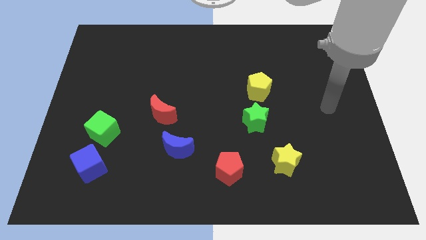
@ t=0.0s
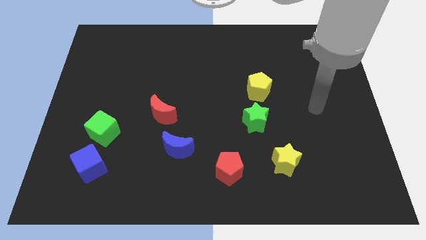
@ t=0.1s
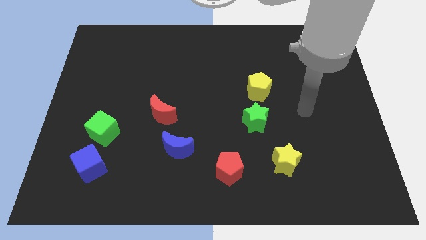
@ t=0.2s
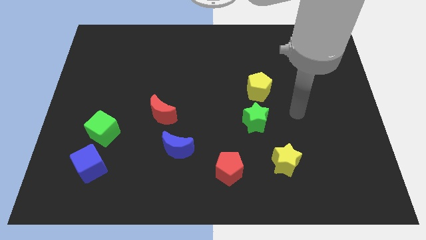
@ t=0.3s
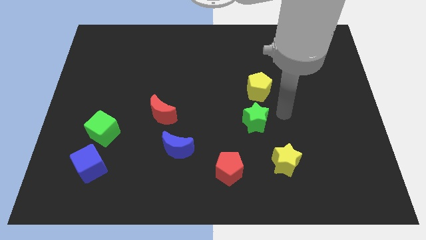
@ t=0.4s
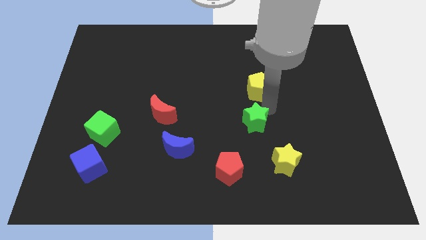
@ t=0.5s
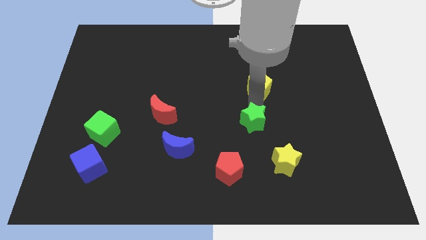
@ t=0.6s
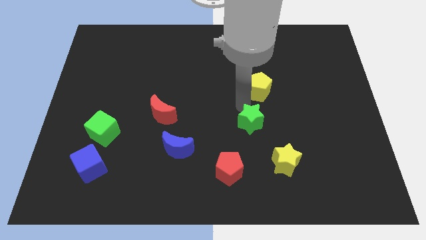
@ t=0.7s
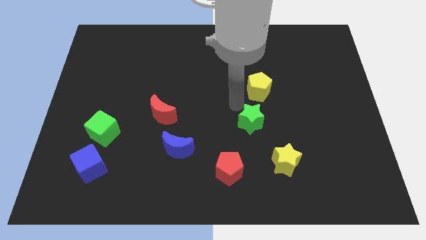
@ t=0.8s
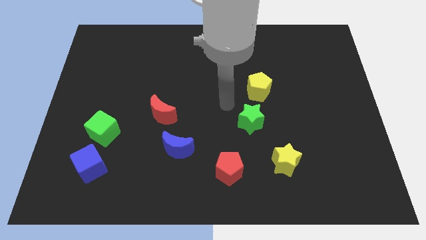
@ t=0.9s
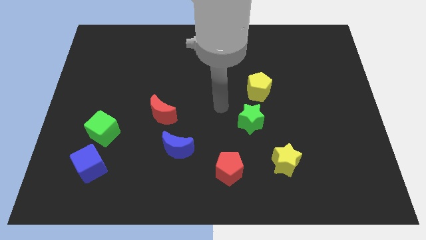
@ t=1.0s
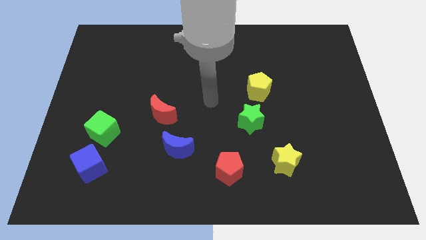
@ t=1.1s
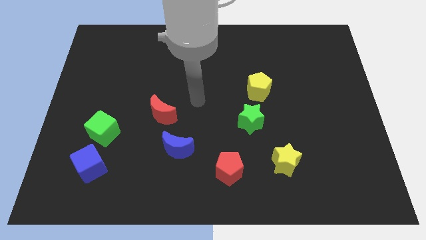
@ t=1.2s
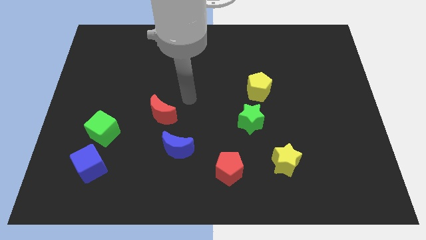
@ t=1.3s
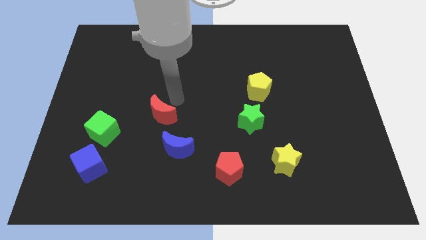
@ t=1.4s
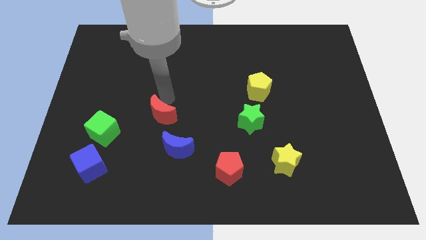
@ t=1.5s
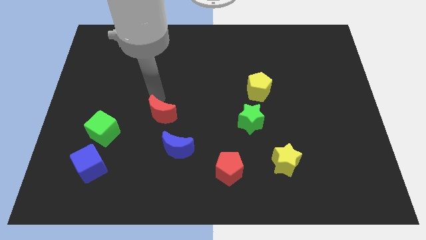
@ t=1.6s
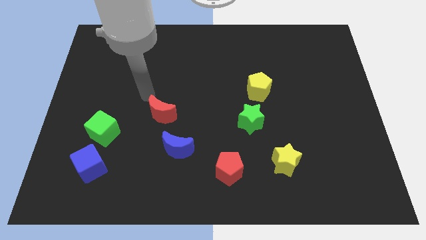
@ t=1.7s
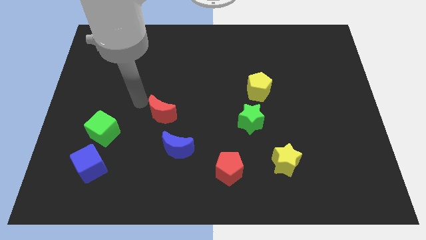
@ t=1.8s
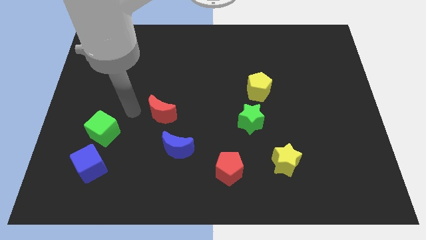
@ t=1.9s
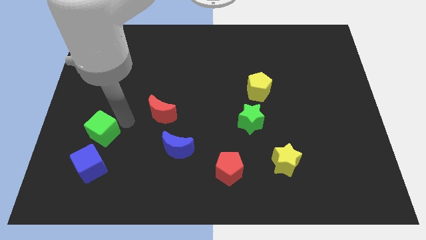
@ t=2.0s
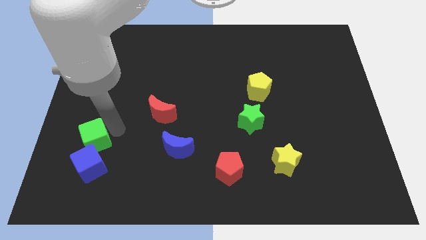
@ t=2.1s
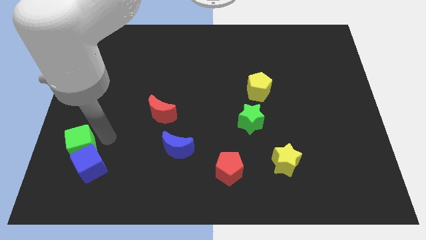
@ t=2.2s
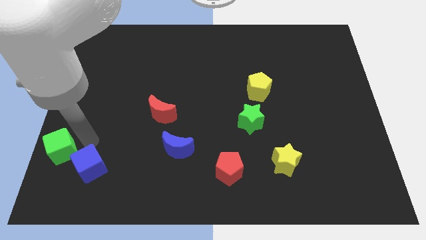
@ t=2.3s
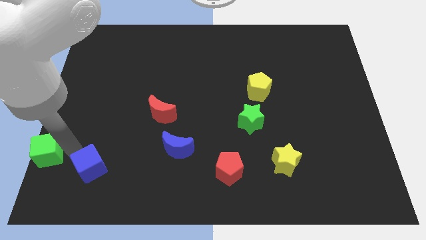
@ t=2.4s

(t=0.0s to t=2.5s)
separate the blue cube from the green cube

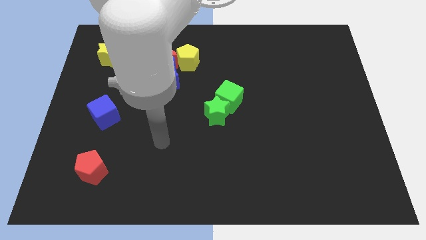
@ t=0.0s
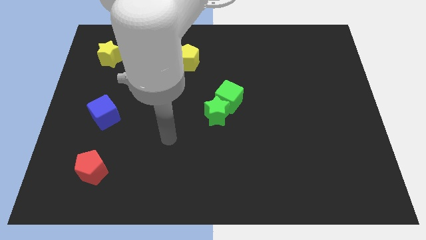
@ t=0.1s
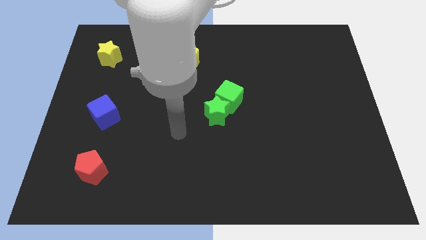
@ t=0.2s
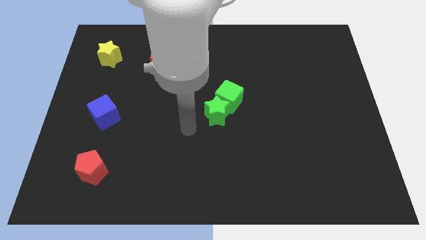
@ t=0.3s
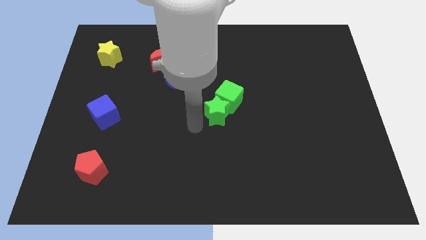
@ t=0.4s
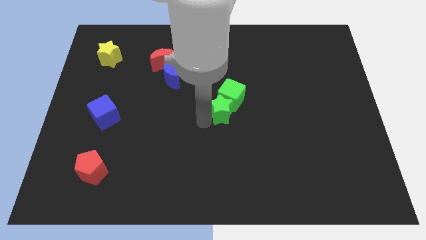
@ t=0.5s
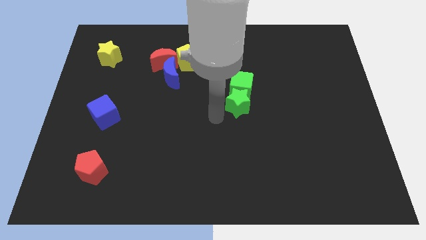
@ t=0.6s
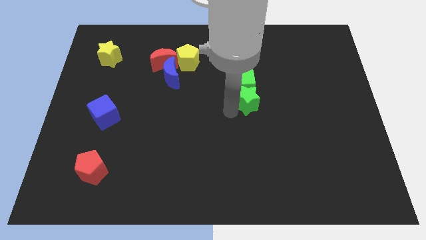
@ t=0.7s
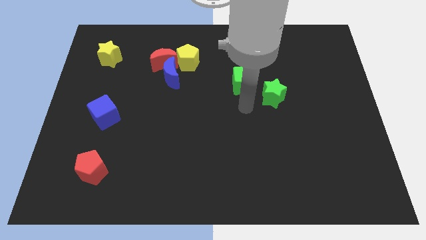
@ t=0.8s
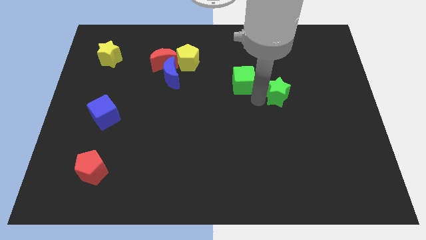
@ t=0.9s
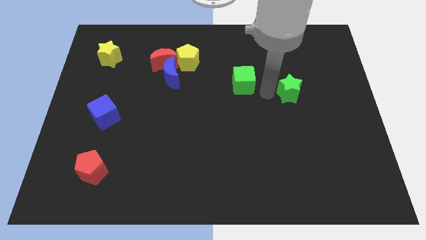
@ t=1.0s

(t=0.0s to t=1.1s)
pull the green cube apart from the green star

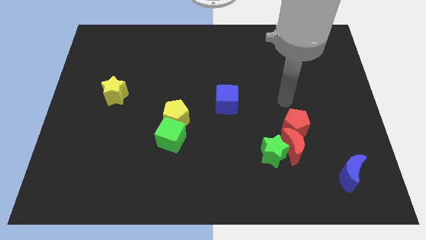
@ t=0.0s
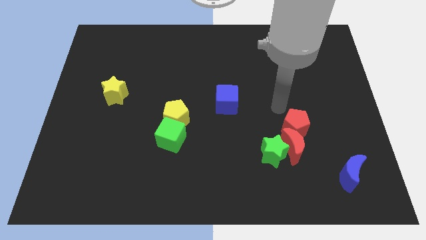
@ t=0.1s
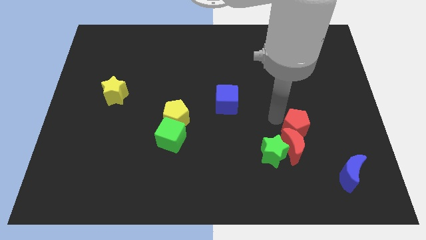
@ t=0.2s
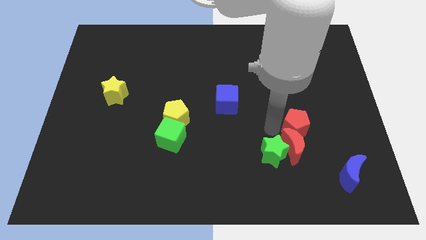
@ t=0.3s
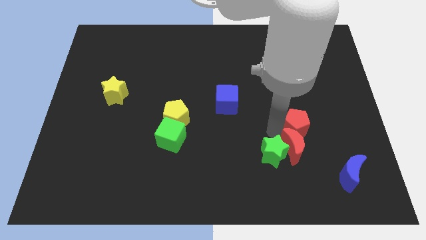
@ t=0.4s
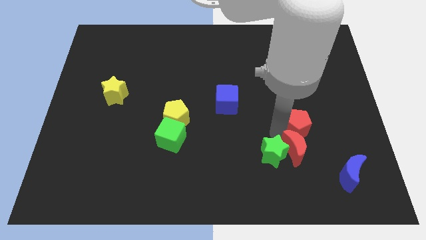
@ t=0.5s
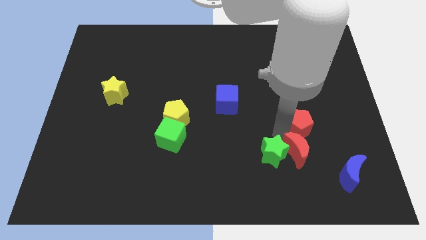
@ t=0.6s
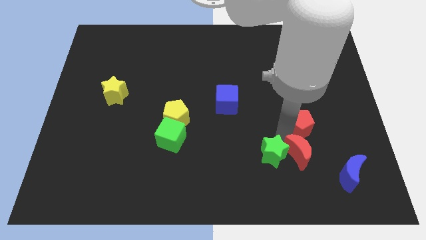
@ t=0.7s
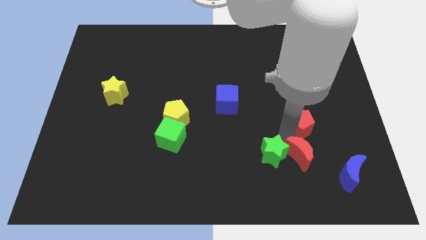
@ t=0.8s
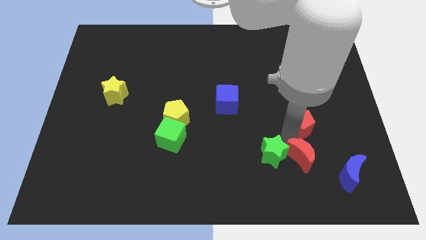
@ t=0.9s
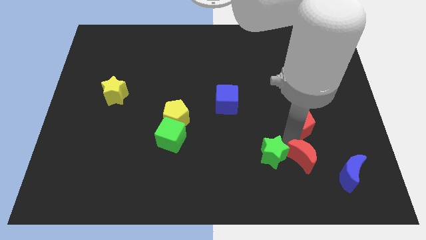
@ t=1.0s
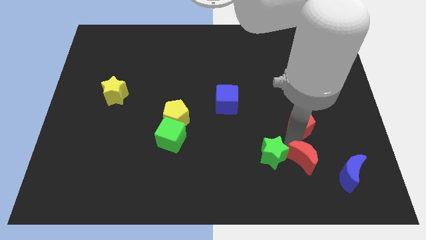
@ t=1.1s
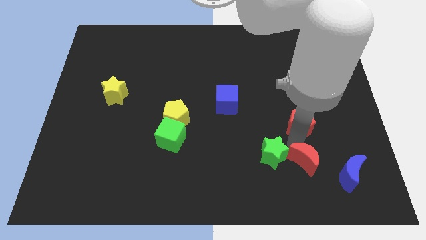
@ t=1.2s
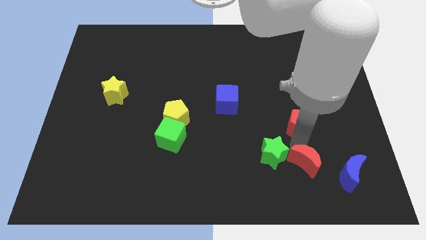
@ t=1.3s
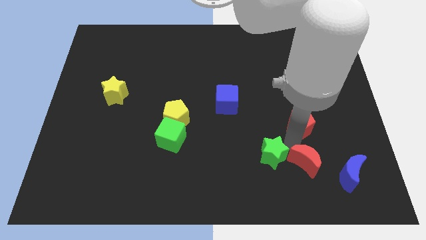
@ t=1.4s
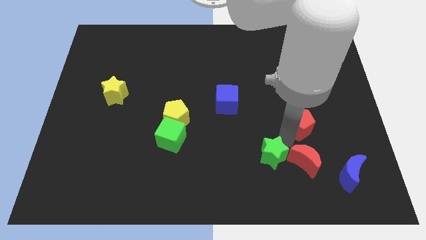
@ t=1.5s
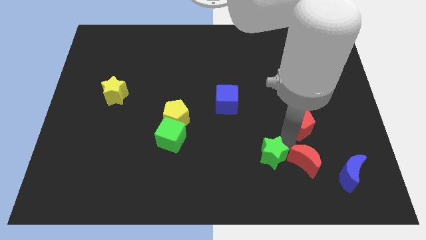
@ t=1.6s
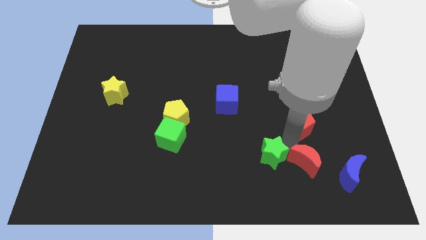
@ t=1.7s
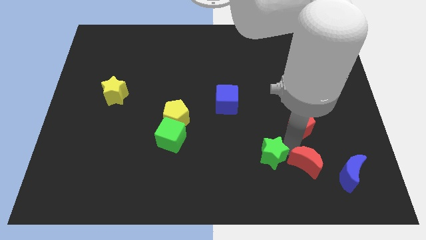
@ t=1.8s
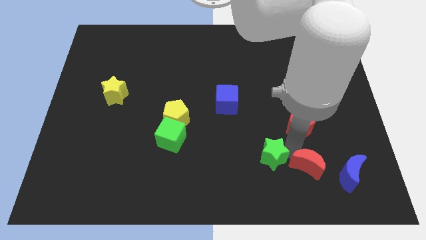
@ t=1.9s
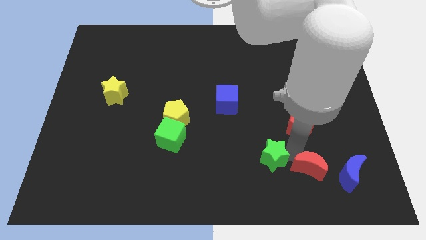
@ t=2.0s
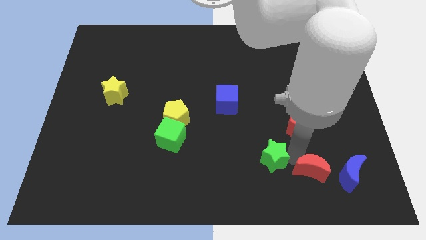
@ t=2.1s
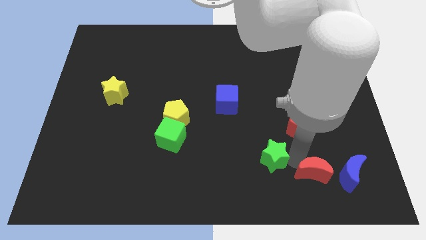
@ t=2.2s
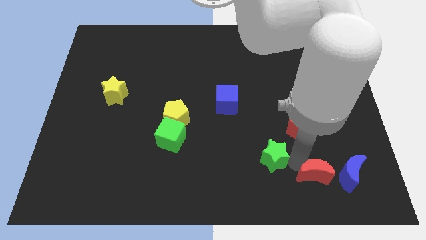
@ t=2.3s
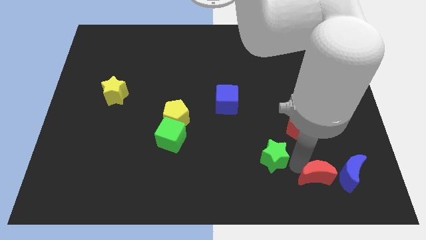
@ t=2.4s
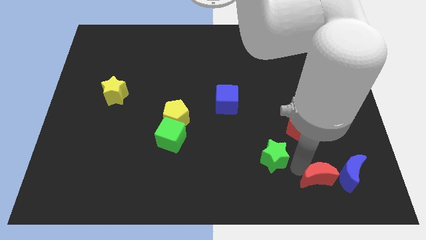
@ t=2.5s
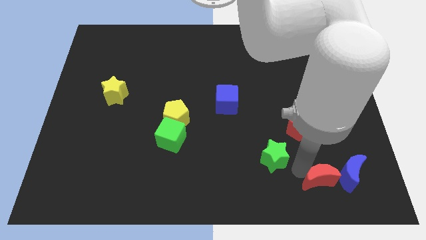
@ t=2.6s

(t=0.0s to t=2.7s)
pull the red moon apart from the green star and red pentagon

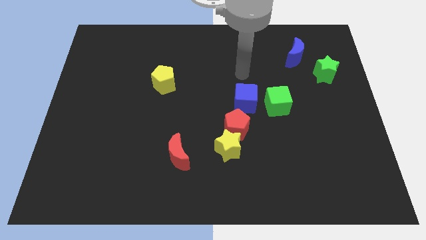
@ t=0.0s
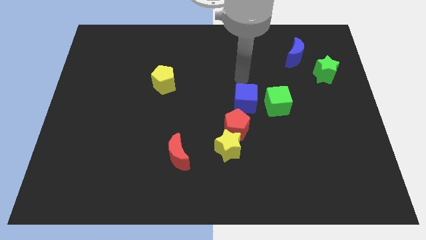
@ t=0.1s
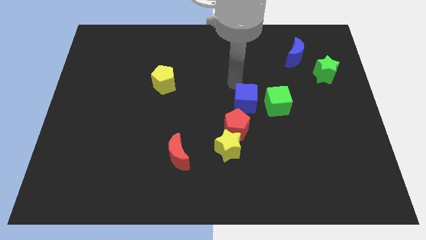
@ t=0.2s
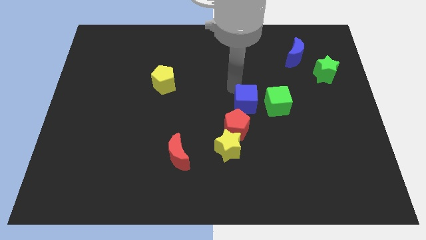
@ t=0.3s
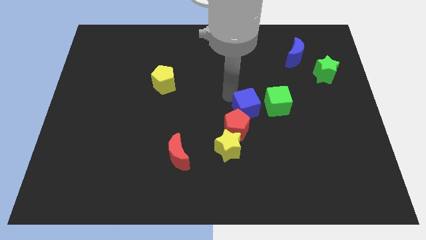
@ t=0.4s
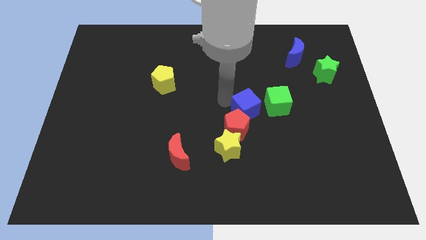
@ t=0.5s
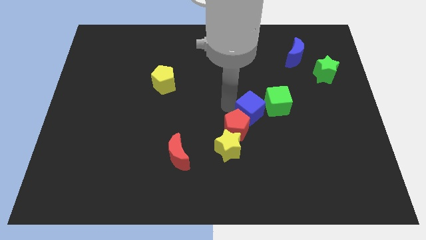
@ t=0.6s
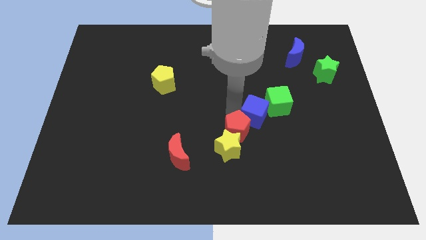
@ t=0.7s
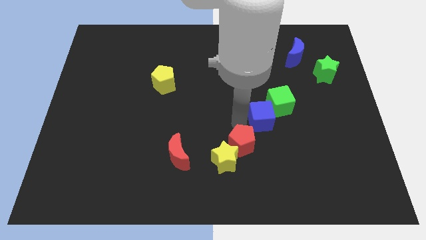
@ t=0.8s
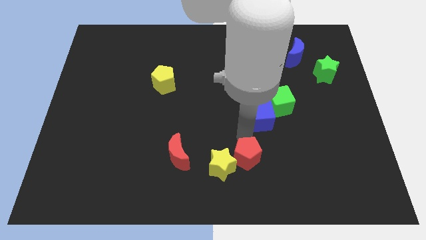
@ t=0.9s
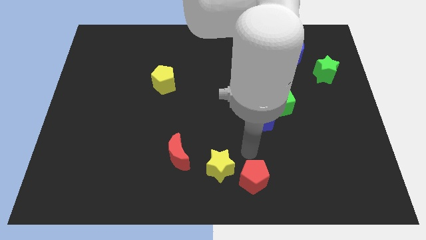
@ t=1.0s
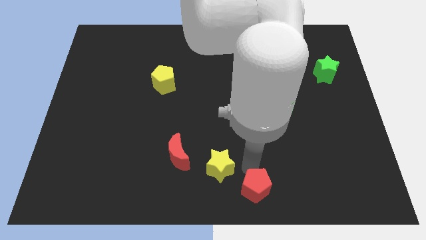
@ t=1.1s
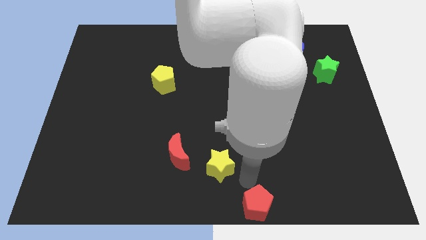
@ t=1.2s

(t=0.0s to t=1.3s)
pull the yellow star apart from the red pentagon

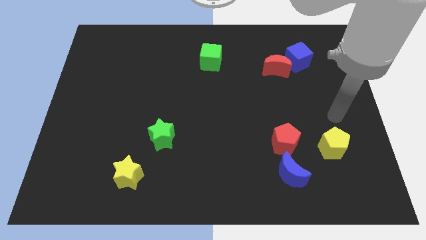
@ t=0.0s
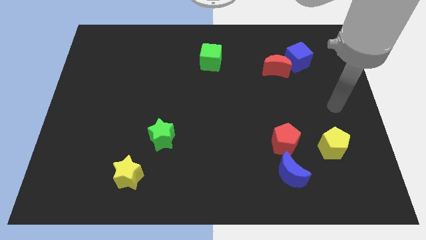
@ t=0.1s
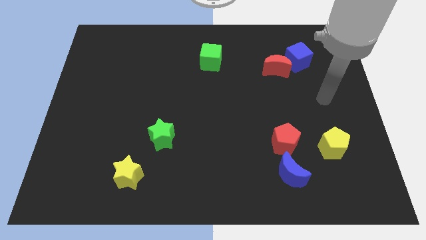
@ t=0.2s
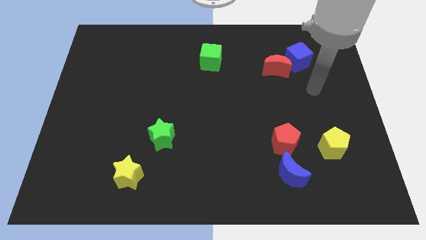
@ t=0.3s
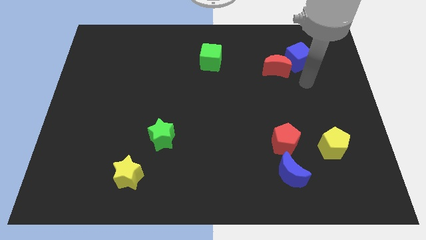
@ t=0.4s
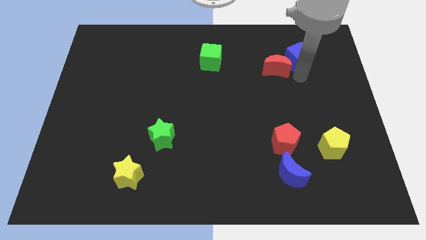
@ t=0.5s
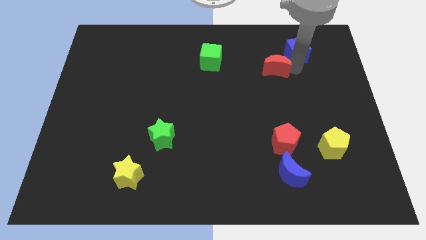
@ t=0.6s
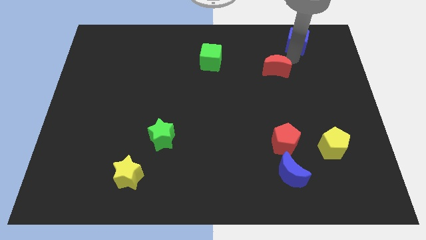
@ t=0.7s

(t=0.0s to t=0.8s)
pull the red moon apart from the blue cube

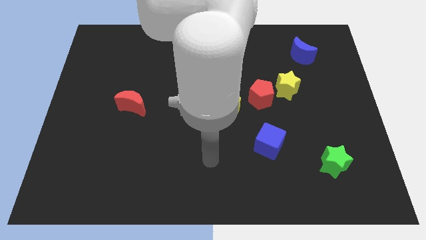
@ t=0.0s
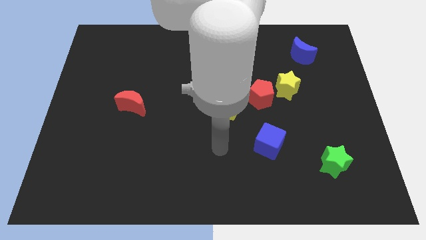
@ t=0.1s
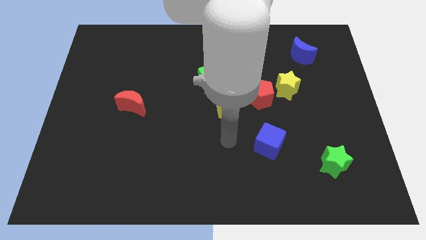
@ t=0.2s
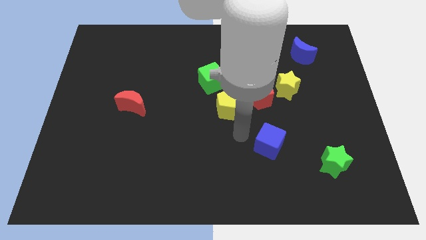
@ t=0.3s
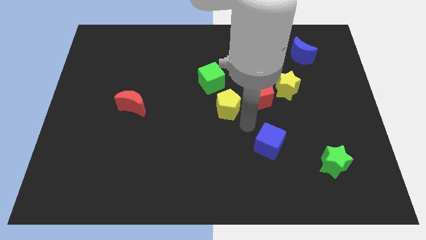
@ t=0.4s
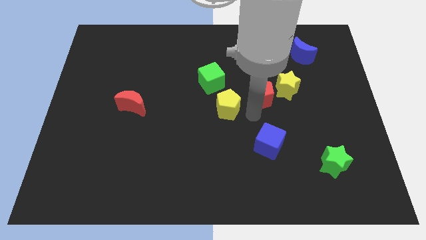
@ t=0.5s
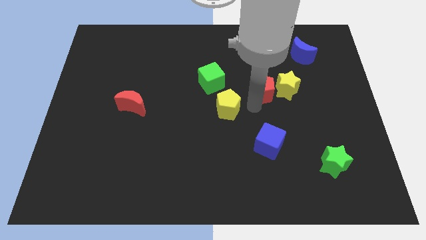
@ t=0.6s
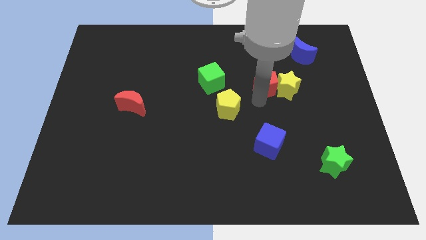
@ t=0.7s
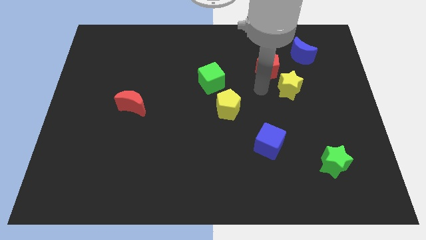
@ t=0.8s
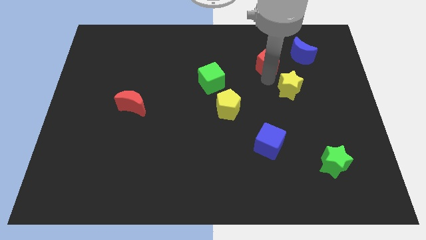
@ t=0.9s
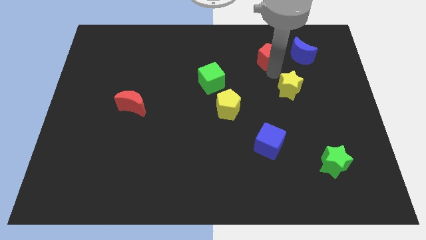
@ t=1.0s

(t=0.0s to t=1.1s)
move the yellow star away from the red pentagon
